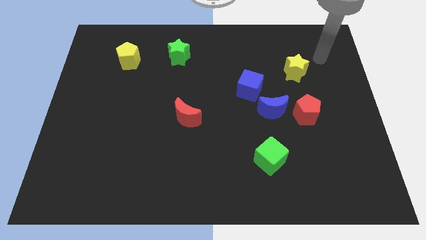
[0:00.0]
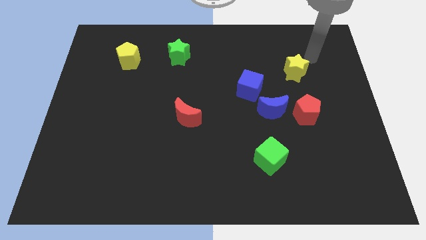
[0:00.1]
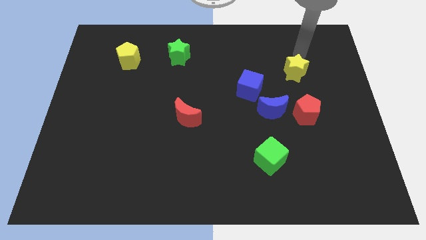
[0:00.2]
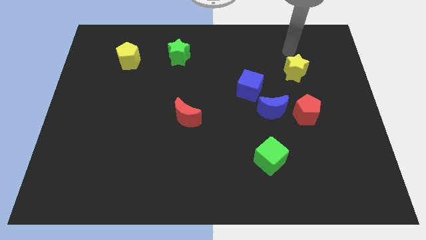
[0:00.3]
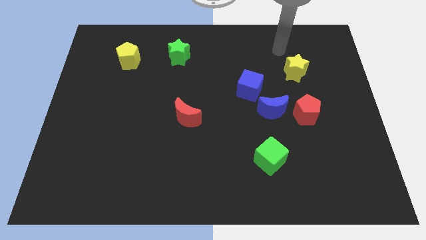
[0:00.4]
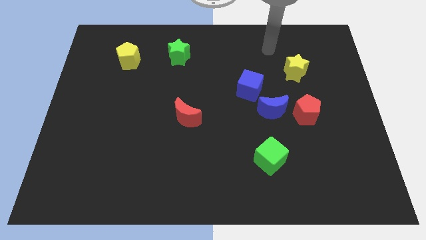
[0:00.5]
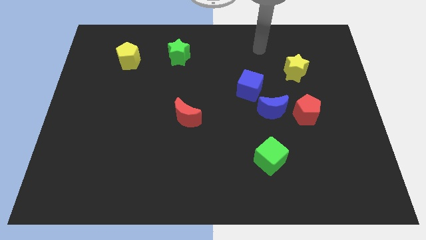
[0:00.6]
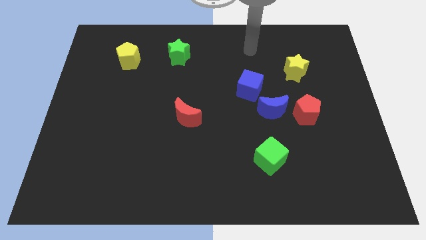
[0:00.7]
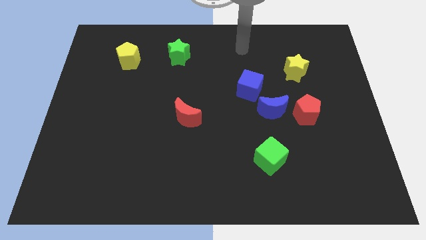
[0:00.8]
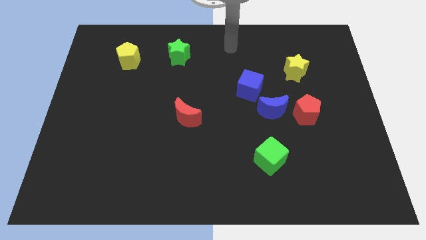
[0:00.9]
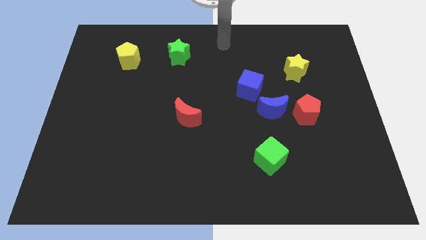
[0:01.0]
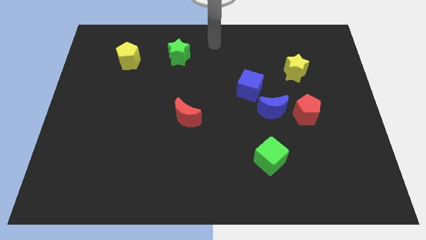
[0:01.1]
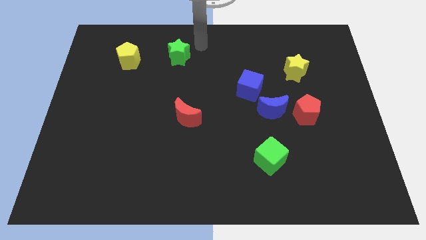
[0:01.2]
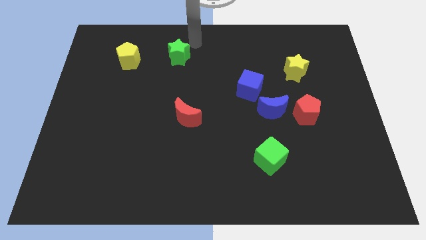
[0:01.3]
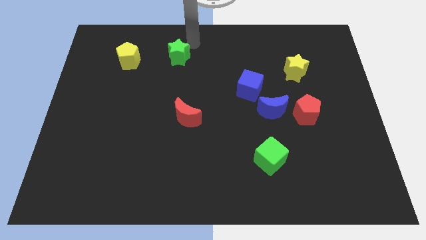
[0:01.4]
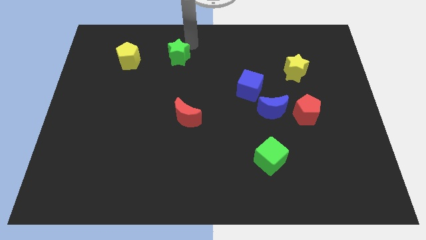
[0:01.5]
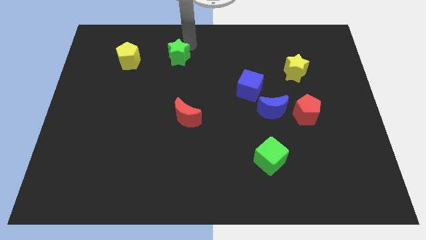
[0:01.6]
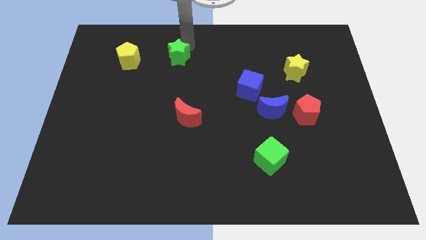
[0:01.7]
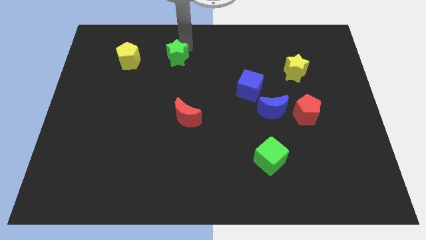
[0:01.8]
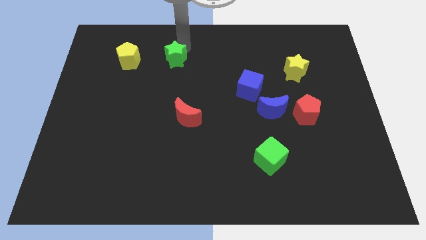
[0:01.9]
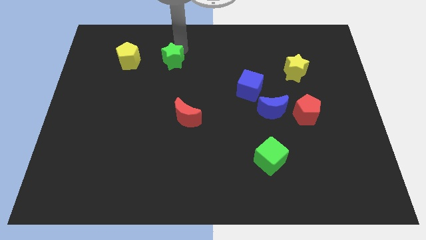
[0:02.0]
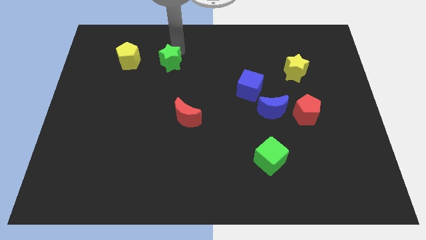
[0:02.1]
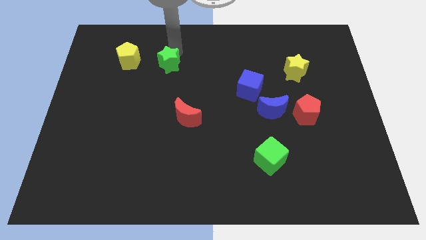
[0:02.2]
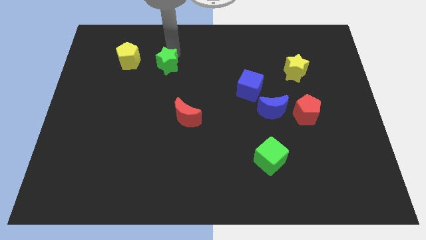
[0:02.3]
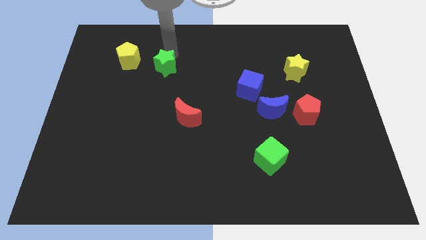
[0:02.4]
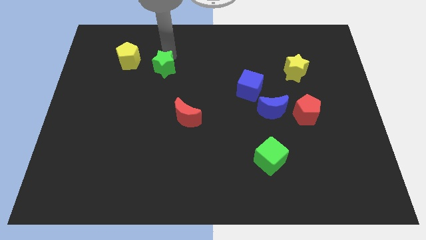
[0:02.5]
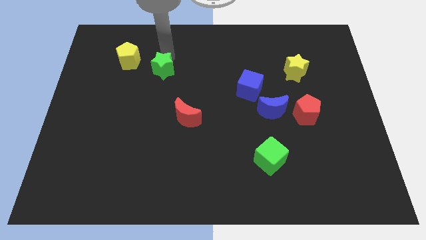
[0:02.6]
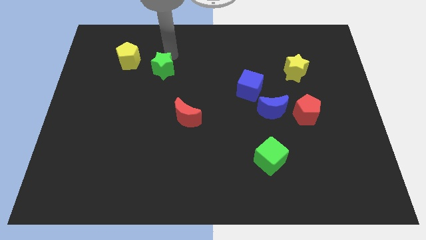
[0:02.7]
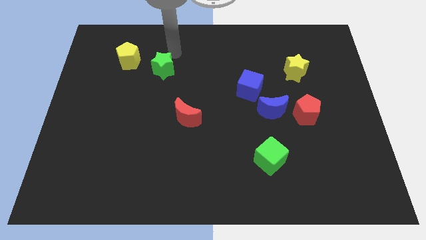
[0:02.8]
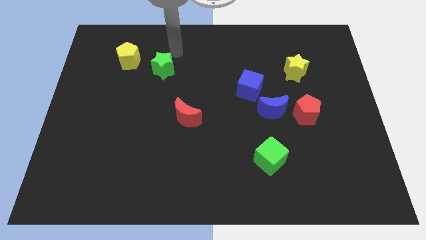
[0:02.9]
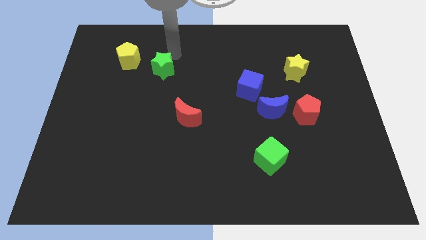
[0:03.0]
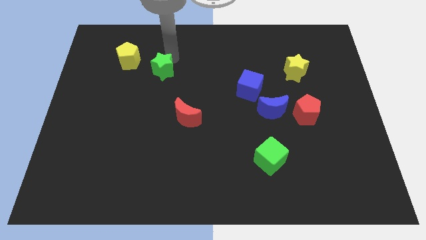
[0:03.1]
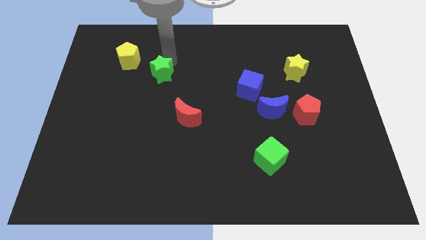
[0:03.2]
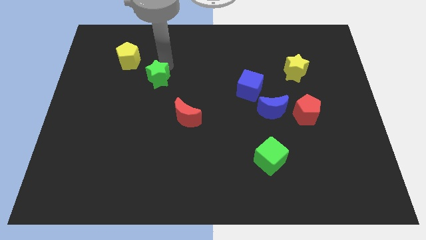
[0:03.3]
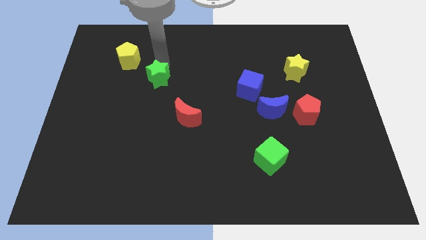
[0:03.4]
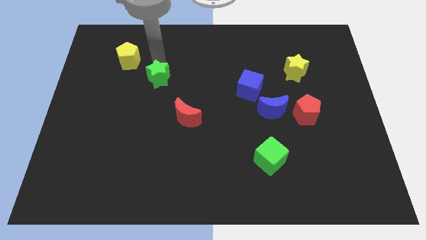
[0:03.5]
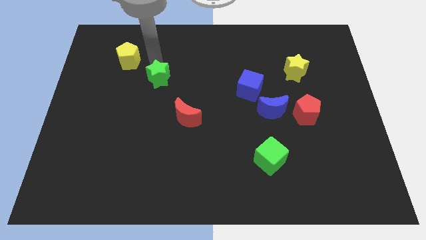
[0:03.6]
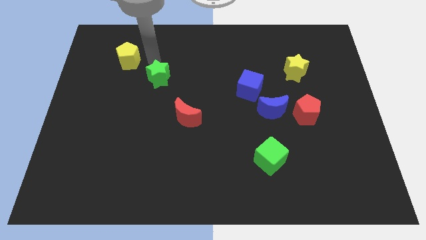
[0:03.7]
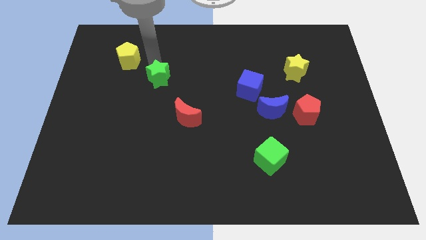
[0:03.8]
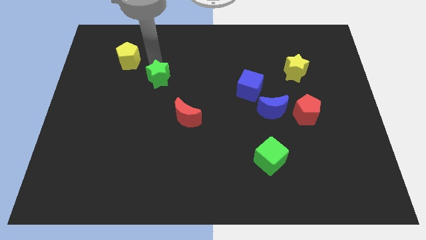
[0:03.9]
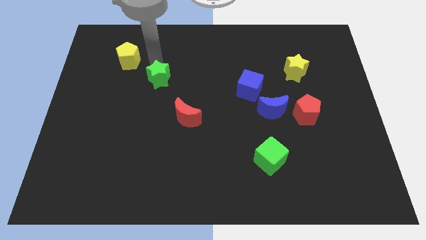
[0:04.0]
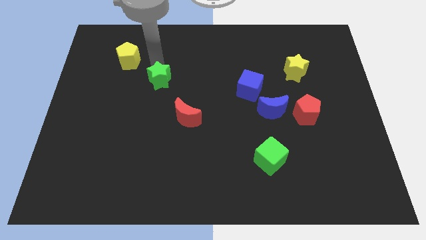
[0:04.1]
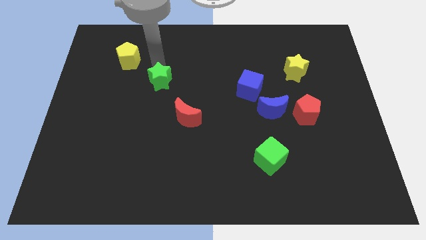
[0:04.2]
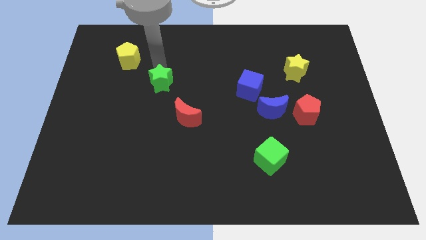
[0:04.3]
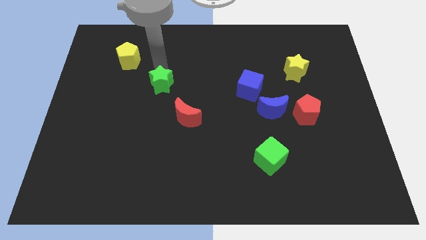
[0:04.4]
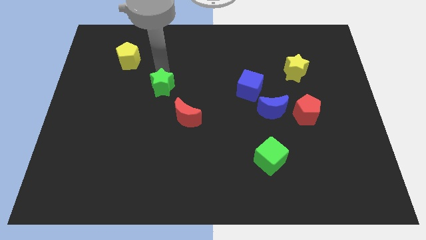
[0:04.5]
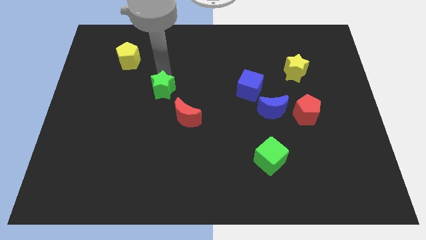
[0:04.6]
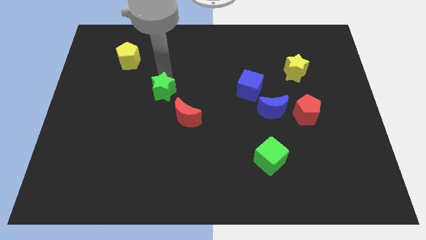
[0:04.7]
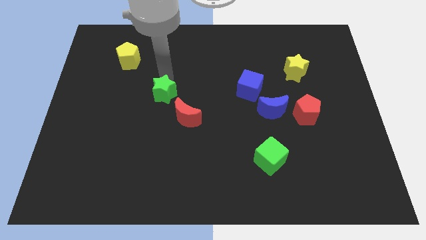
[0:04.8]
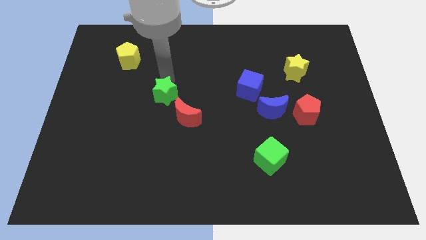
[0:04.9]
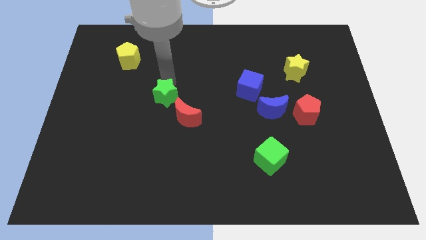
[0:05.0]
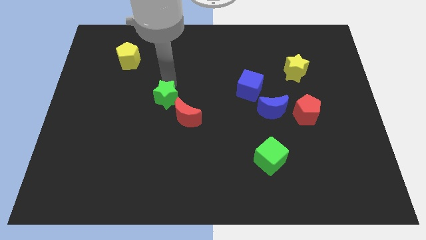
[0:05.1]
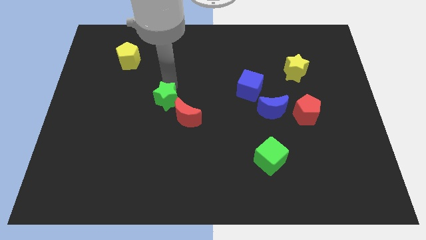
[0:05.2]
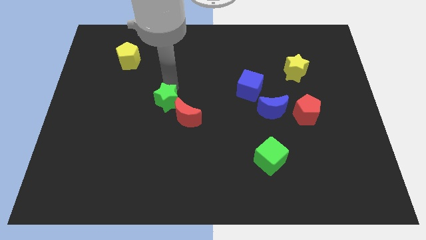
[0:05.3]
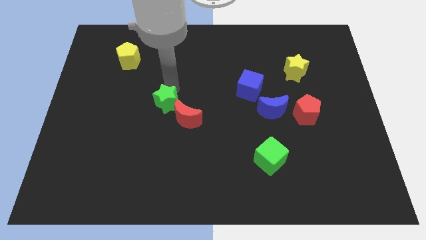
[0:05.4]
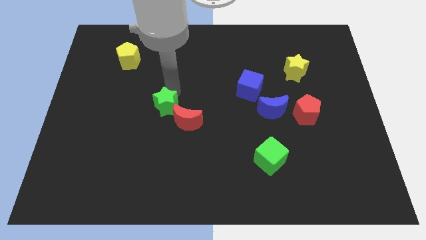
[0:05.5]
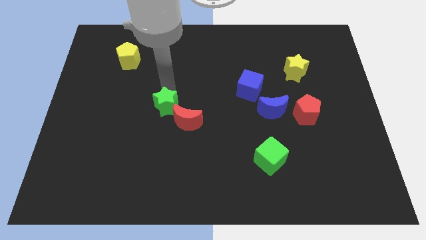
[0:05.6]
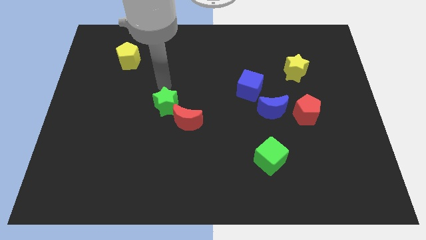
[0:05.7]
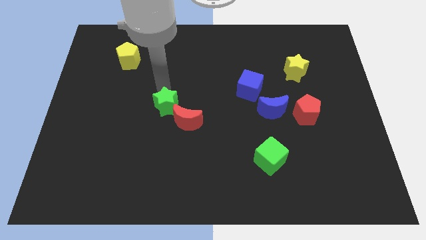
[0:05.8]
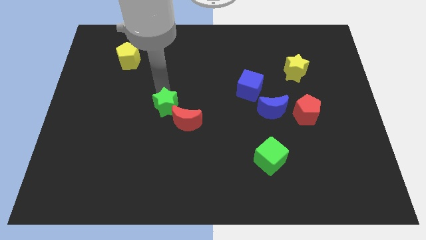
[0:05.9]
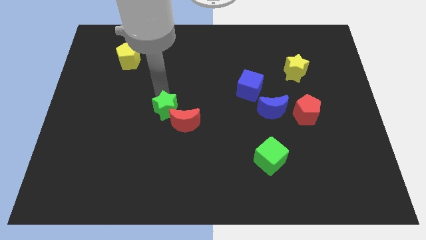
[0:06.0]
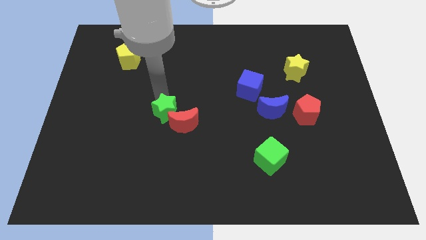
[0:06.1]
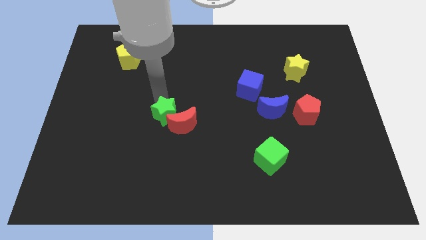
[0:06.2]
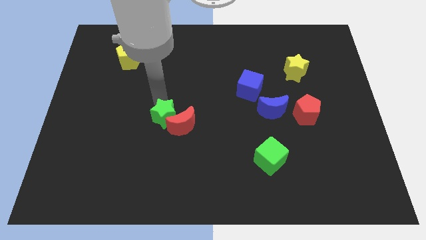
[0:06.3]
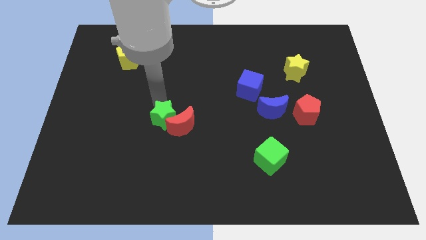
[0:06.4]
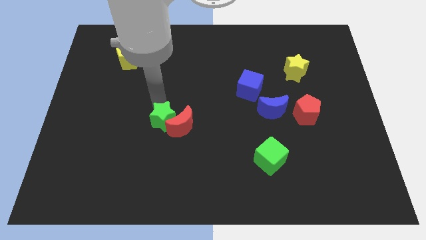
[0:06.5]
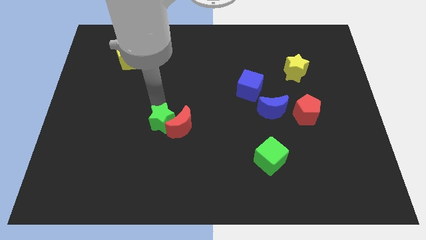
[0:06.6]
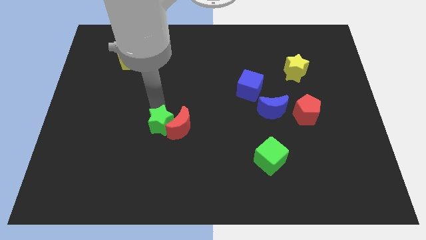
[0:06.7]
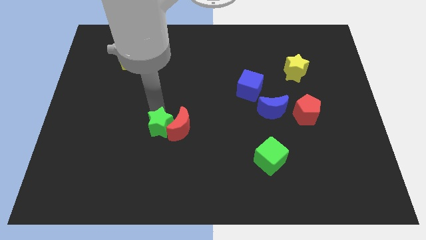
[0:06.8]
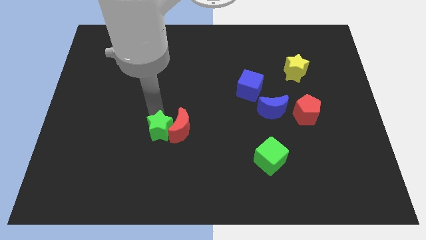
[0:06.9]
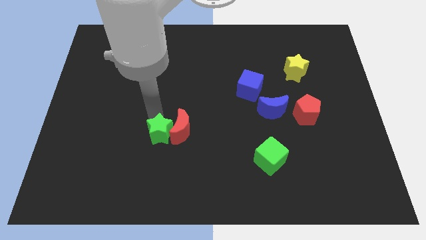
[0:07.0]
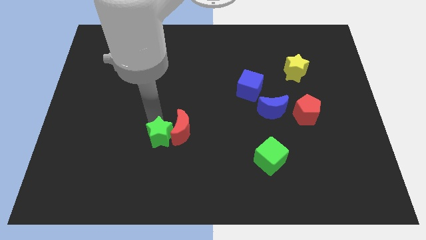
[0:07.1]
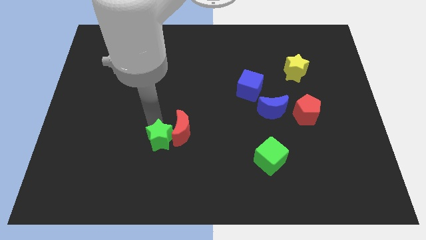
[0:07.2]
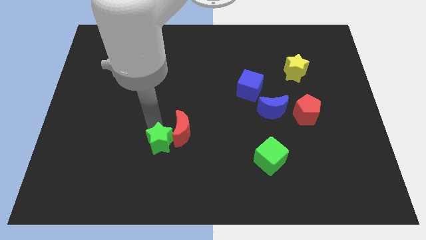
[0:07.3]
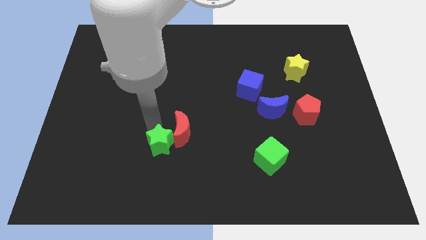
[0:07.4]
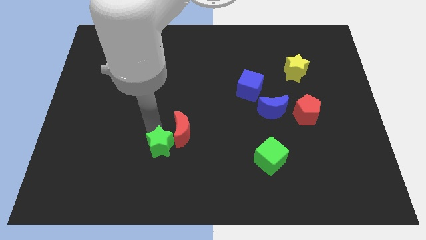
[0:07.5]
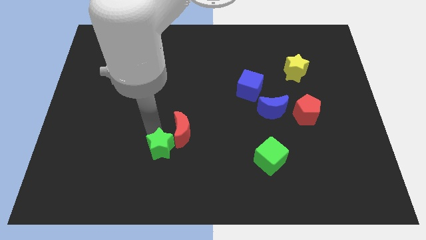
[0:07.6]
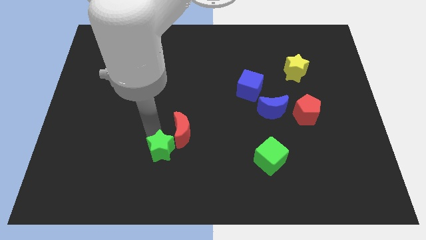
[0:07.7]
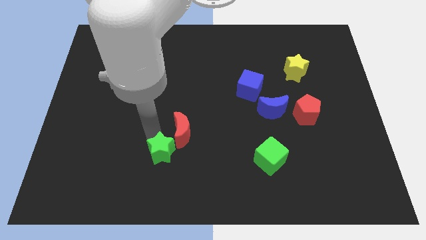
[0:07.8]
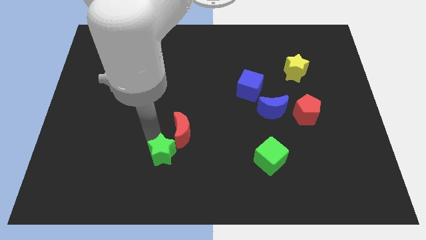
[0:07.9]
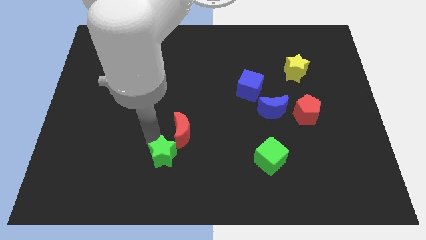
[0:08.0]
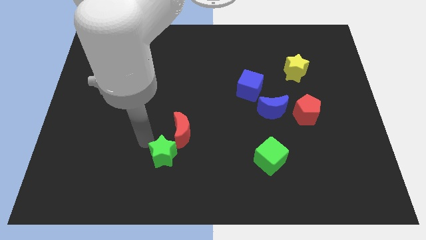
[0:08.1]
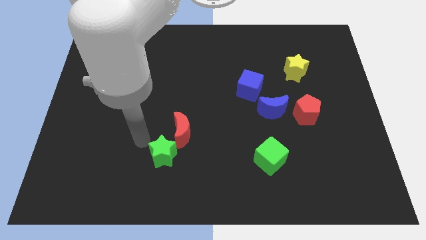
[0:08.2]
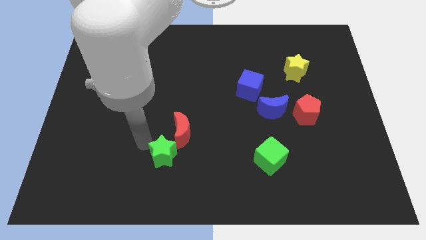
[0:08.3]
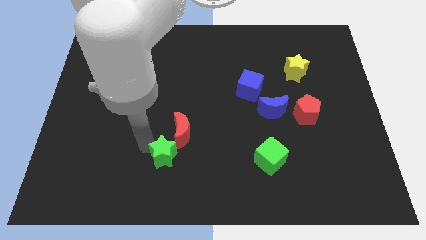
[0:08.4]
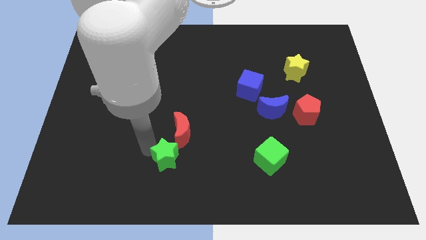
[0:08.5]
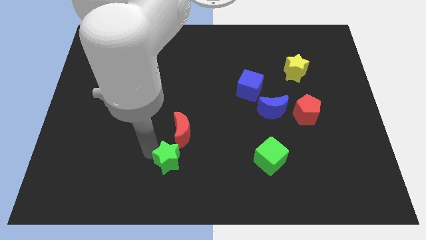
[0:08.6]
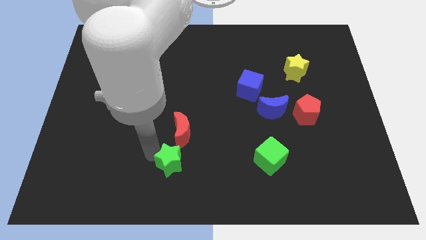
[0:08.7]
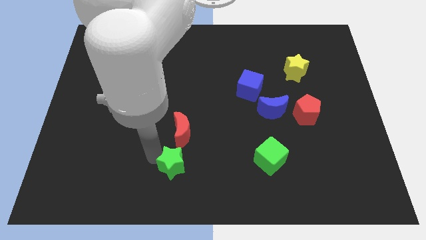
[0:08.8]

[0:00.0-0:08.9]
push the green star to the bottom
